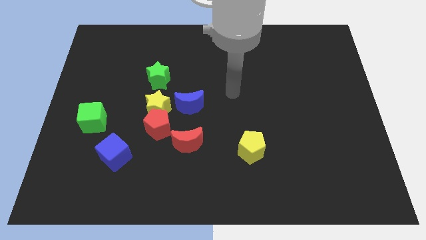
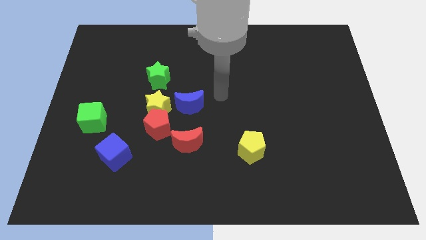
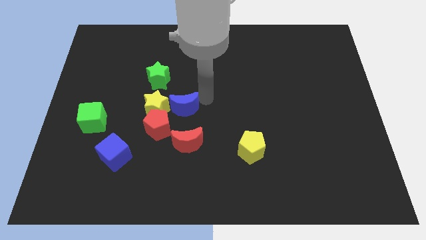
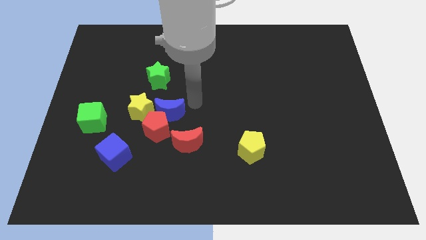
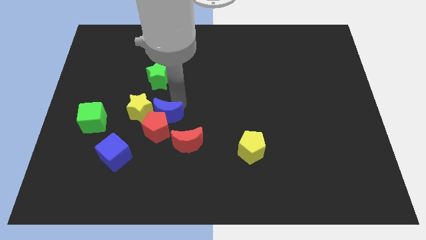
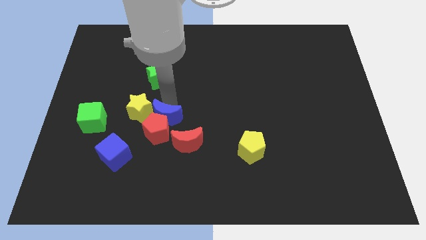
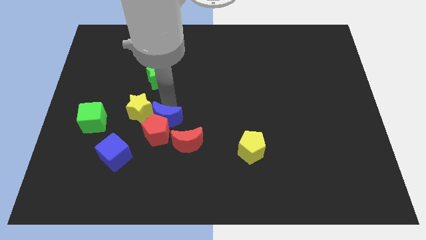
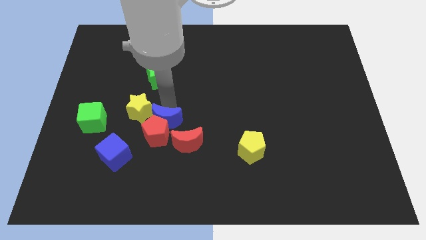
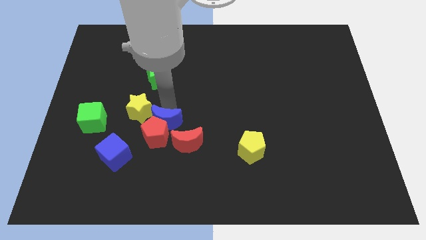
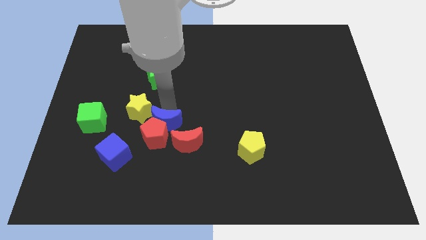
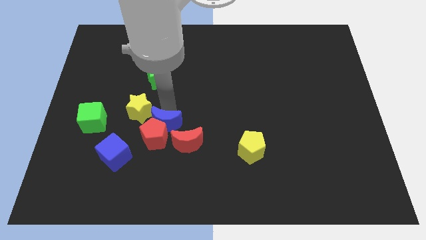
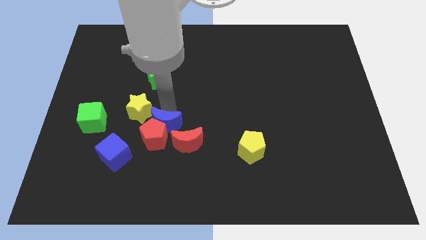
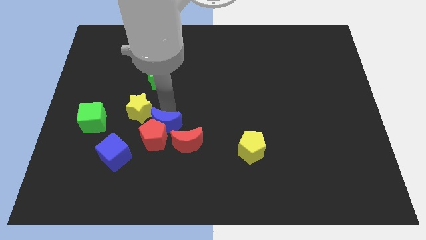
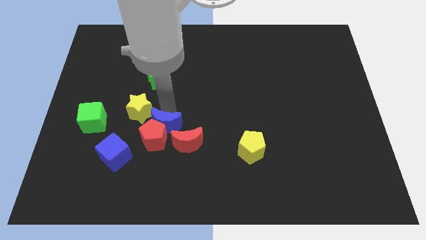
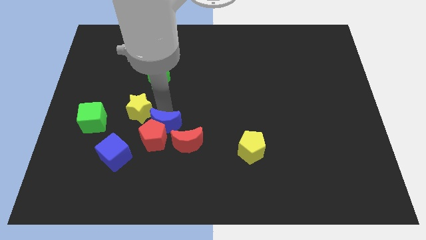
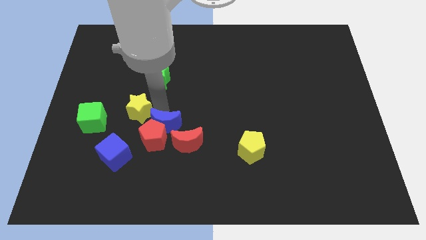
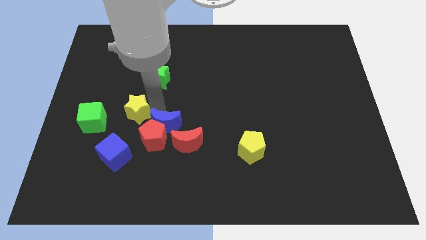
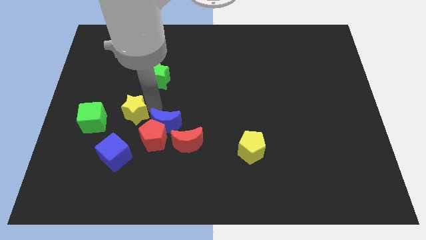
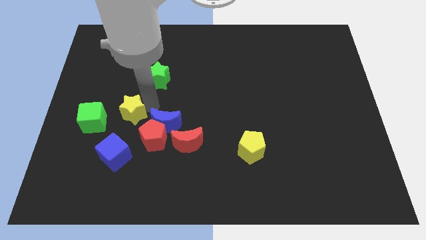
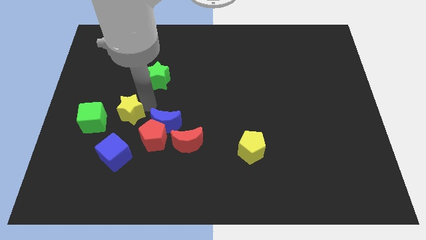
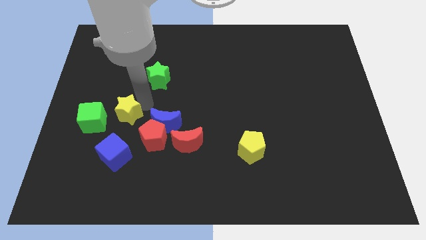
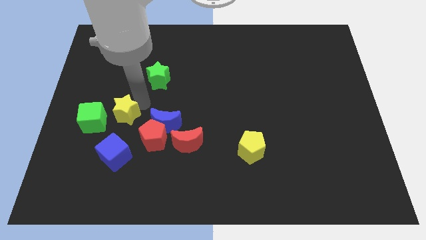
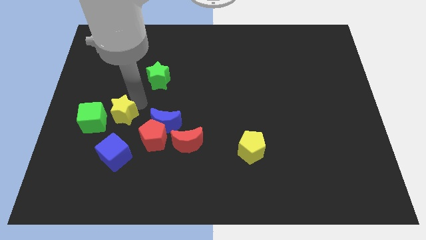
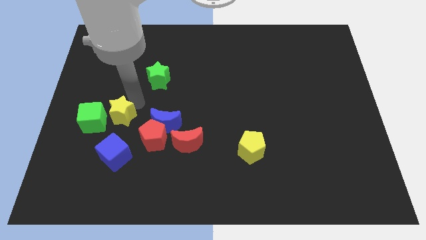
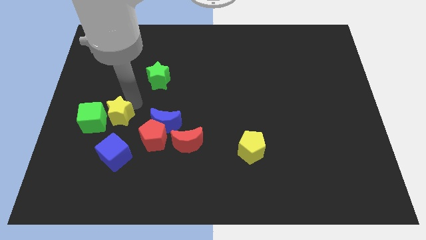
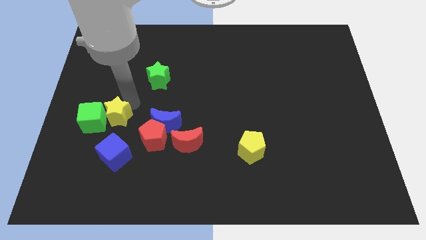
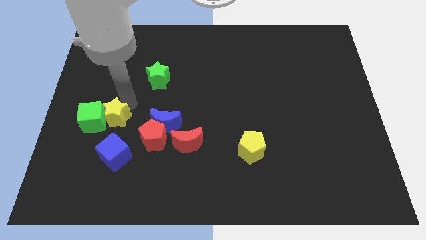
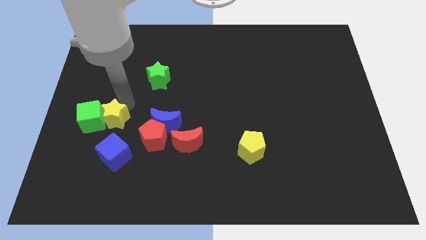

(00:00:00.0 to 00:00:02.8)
move the yellow star away from the group of blocks

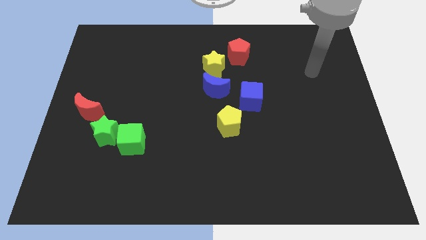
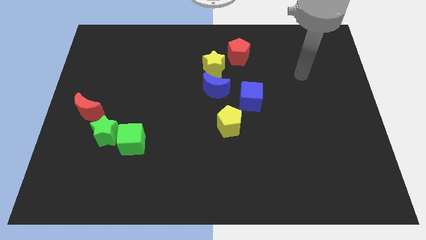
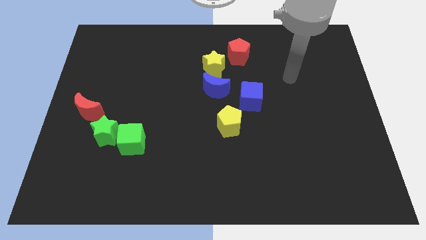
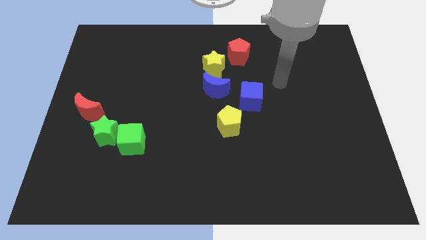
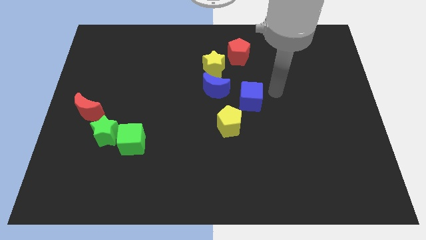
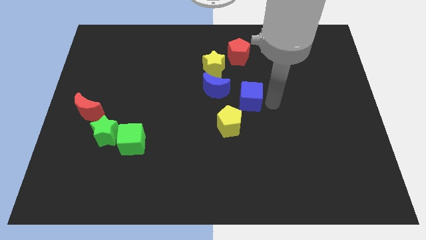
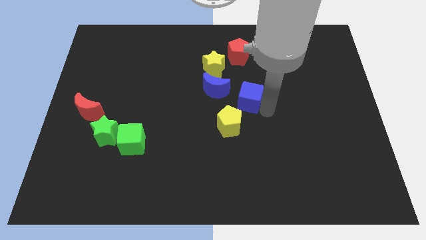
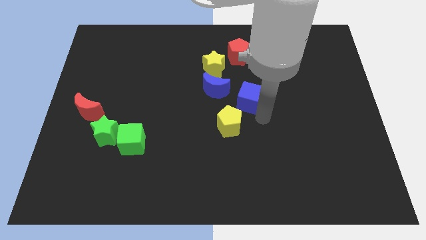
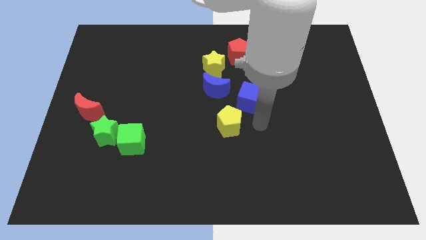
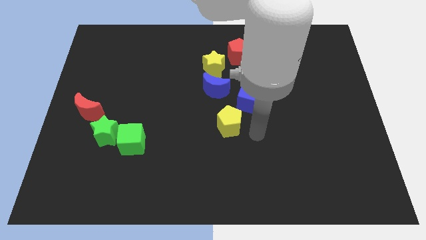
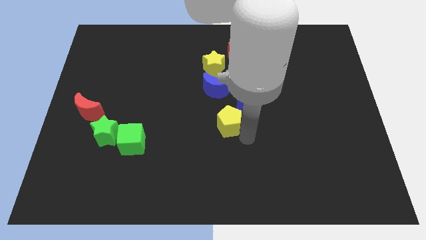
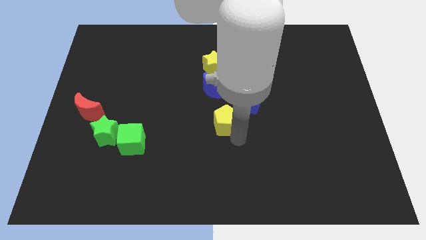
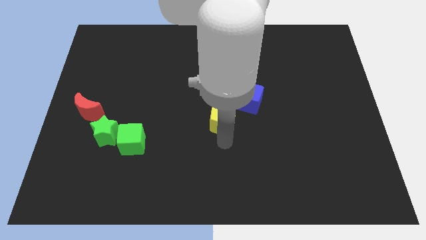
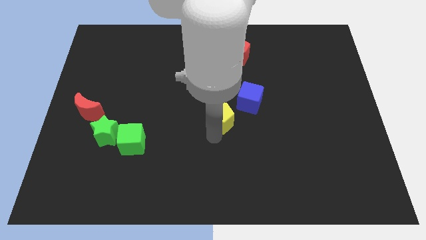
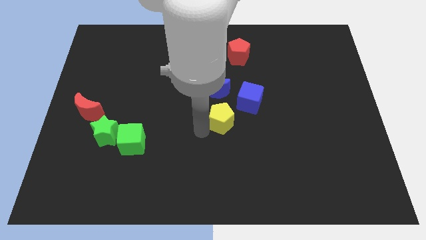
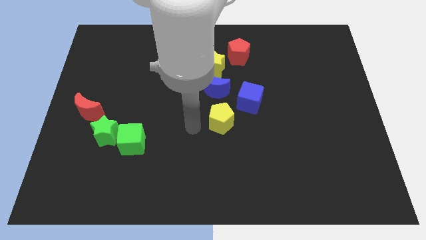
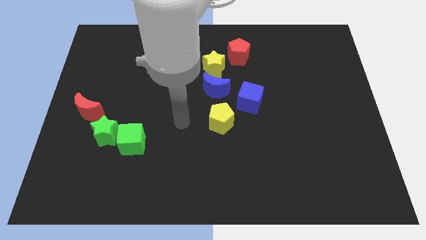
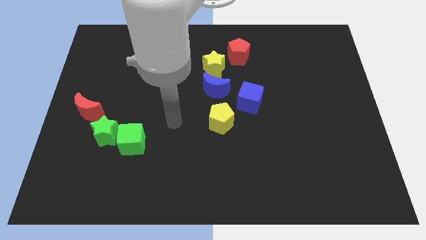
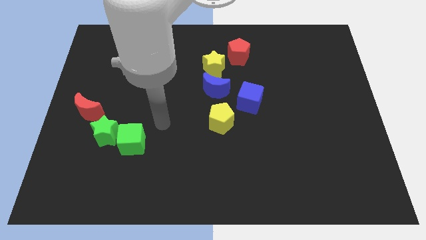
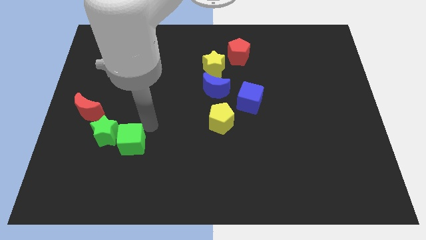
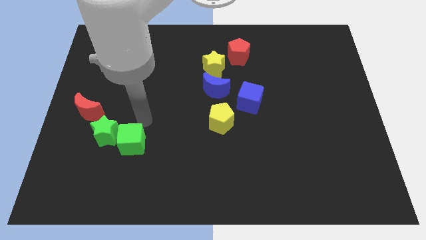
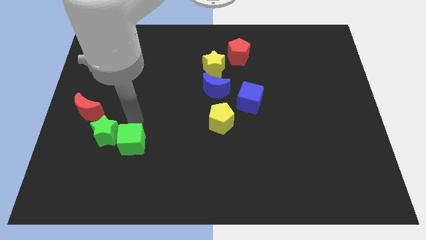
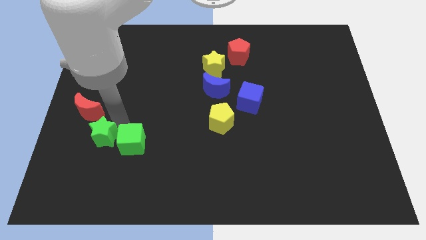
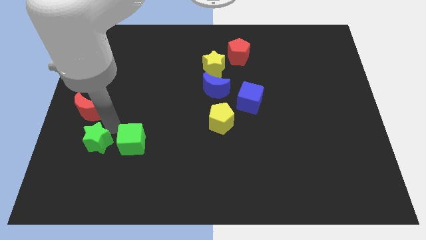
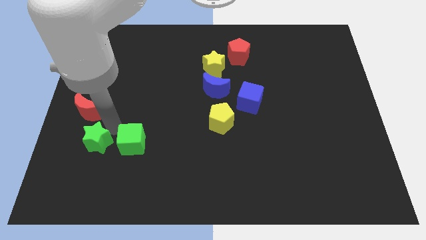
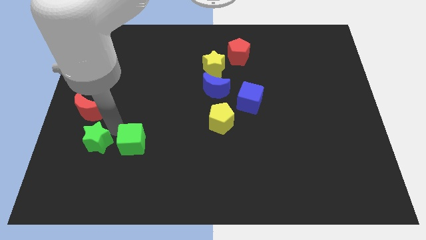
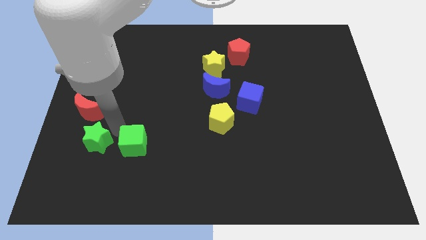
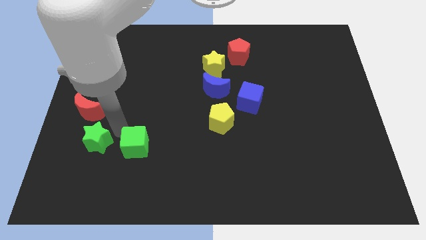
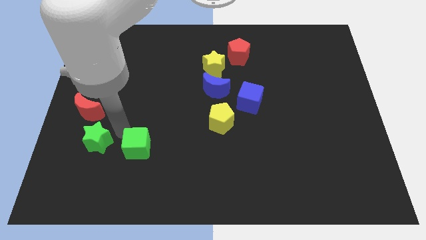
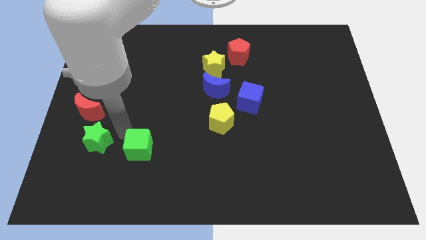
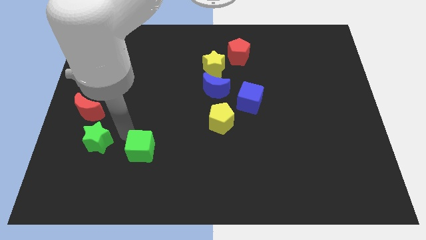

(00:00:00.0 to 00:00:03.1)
separate the green cube from the green star

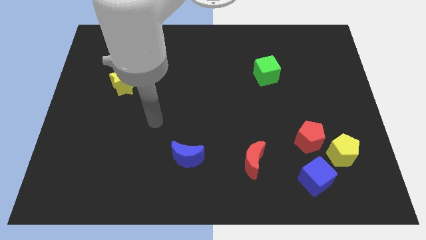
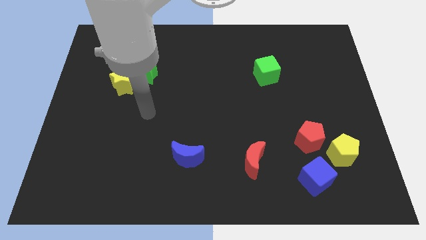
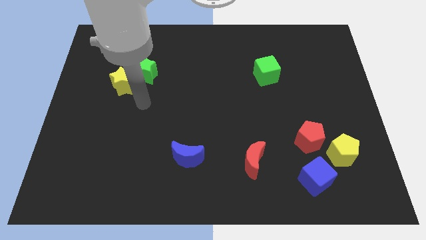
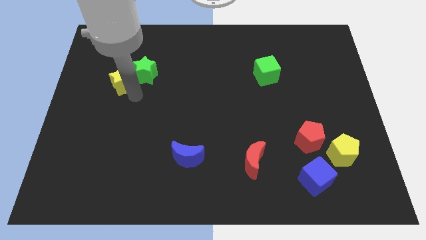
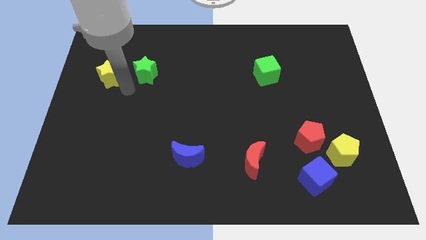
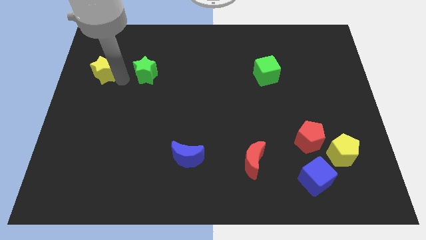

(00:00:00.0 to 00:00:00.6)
separate the green star from the yellow star

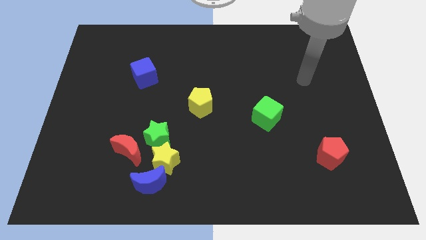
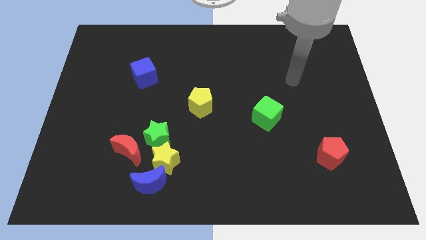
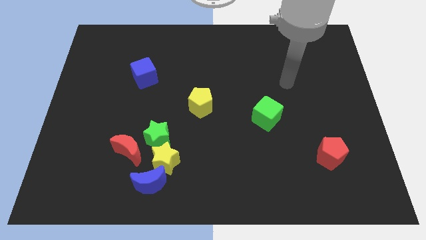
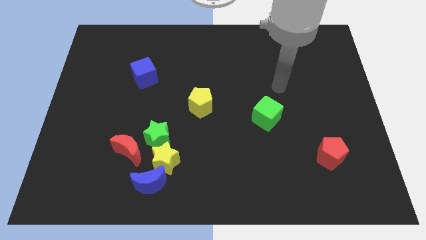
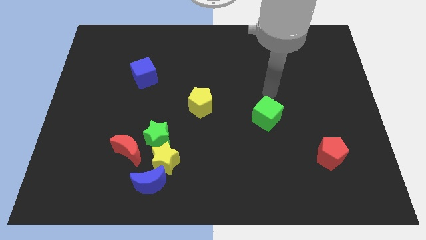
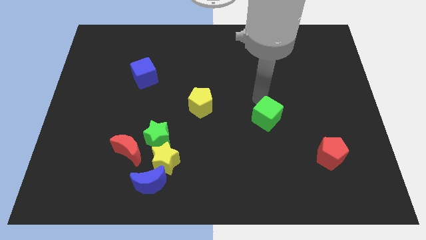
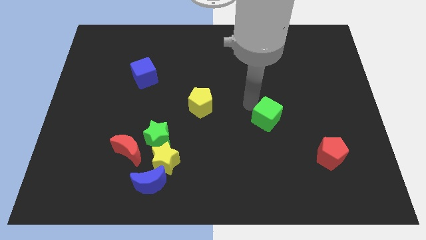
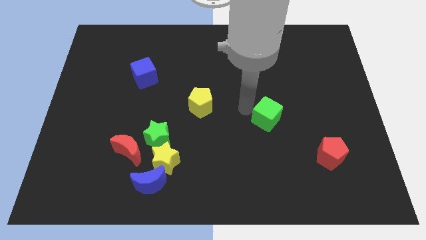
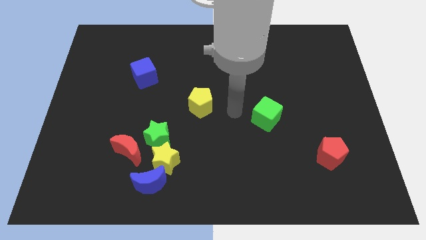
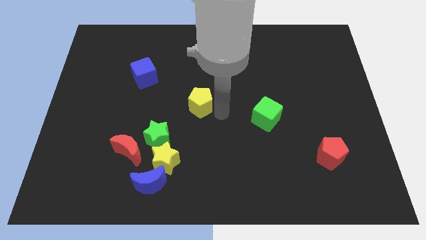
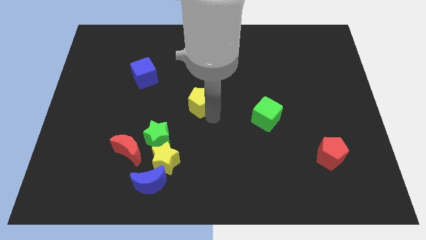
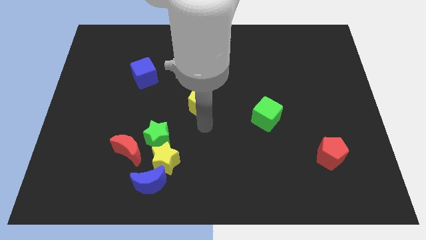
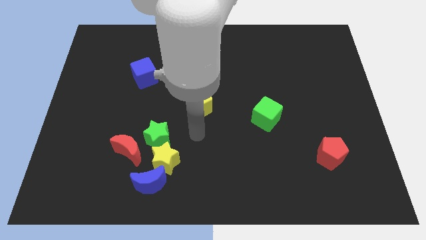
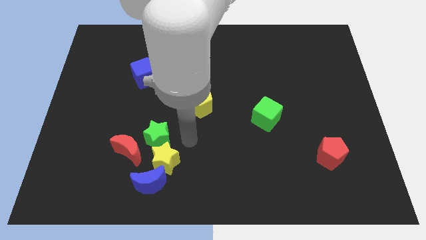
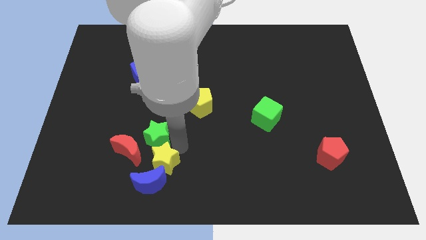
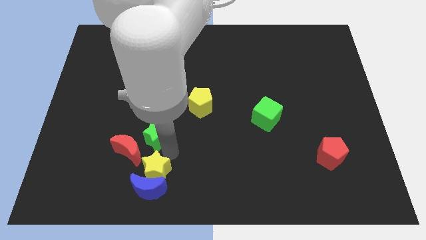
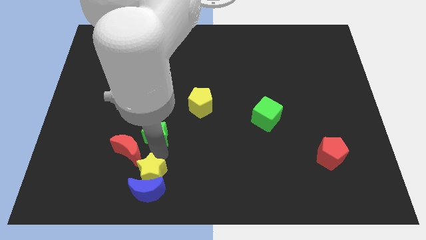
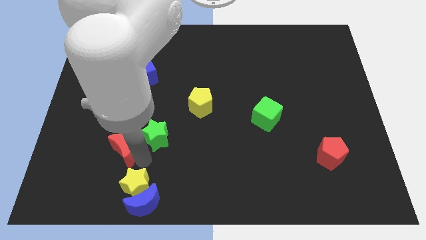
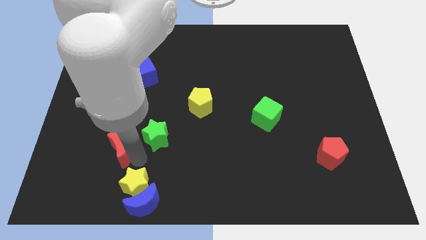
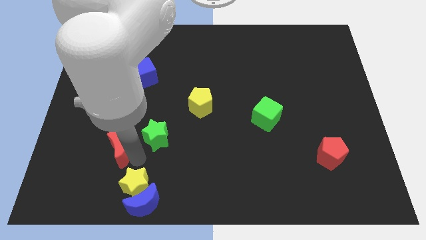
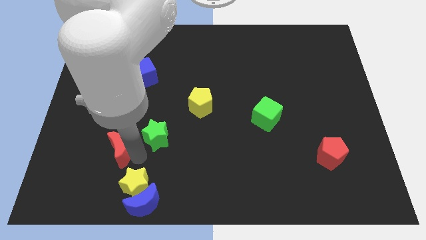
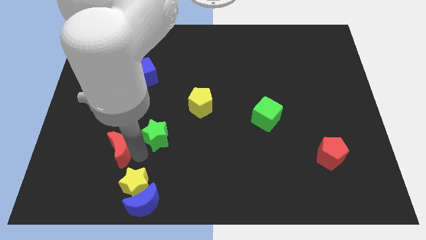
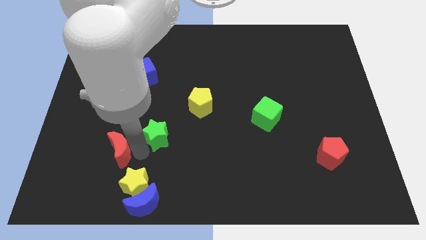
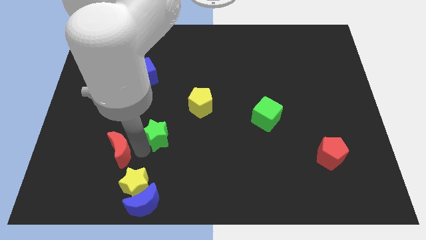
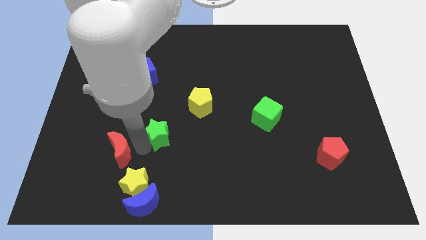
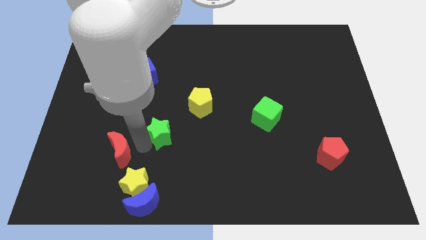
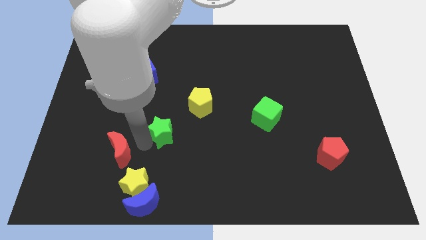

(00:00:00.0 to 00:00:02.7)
move the green star away from the yellow star and red moon

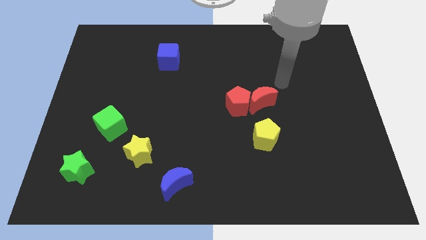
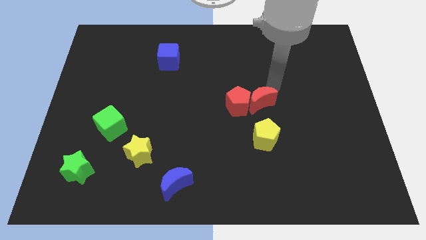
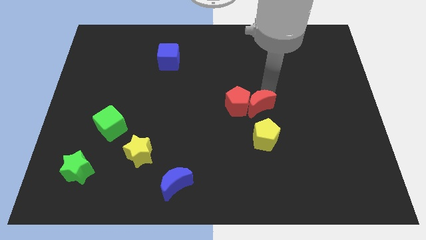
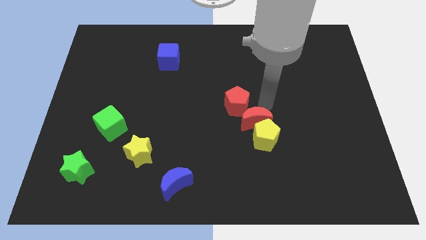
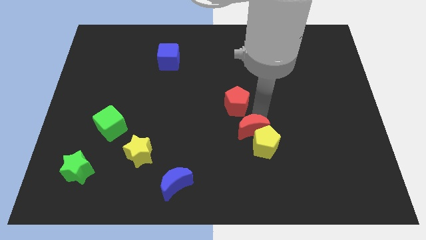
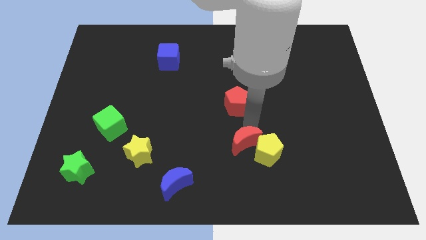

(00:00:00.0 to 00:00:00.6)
pull the red pentagon apart from the red moon
